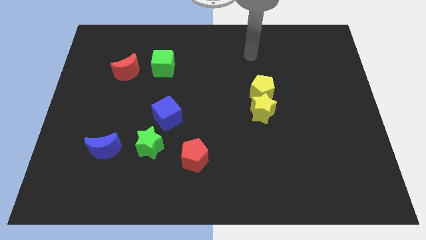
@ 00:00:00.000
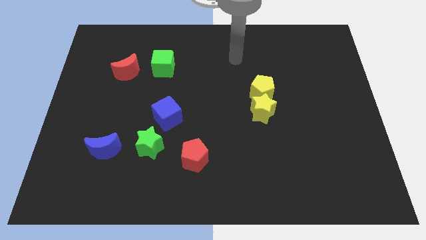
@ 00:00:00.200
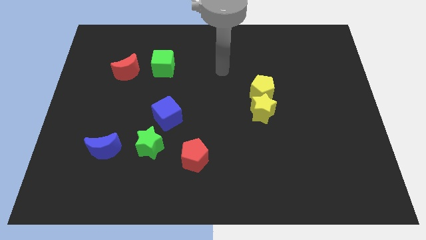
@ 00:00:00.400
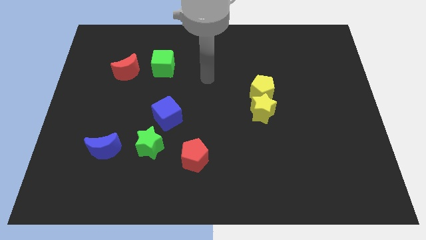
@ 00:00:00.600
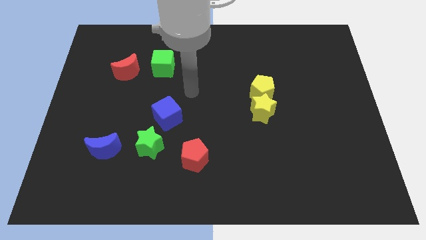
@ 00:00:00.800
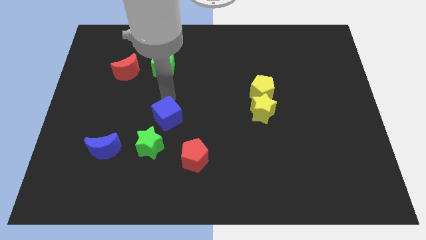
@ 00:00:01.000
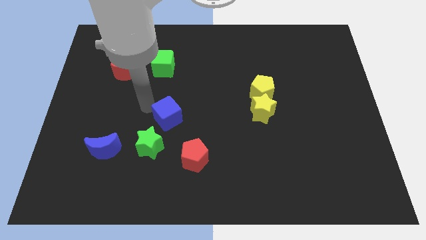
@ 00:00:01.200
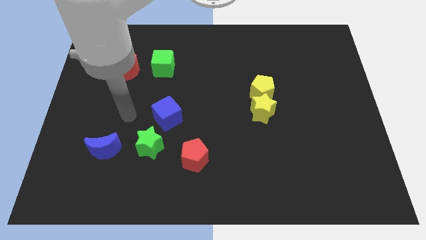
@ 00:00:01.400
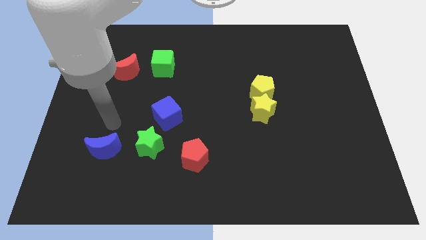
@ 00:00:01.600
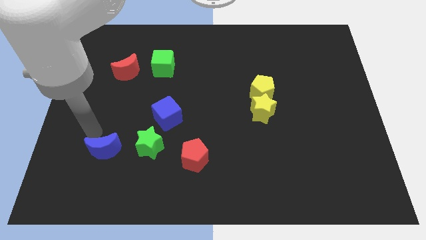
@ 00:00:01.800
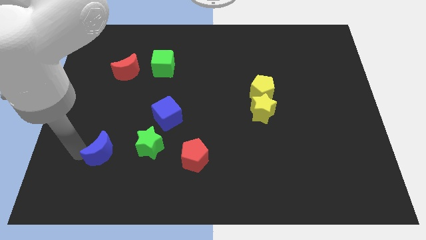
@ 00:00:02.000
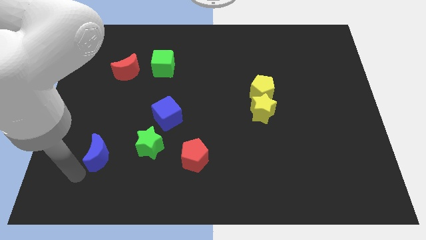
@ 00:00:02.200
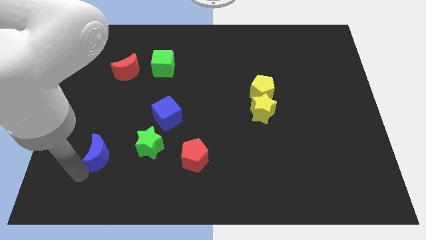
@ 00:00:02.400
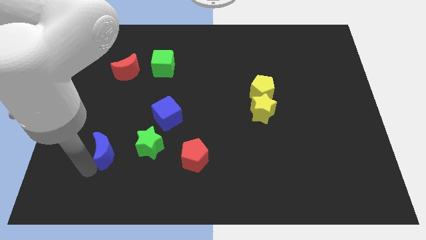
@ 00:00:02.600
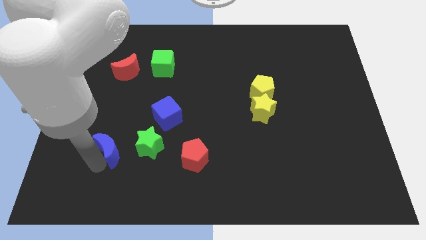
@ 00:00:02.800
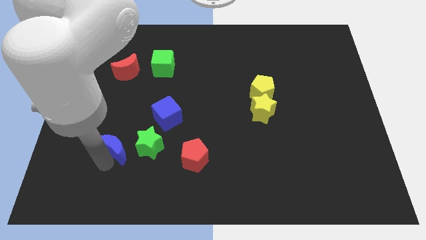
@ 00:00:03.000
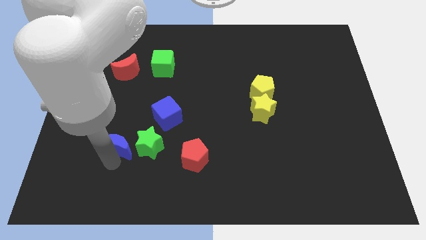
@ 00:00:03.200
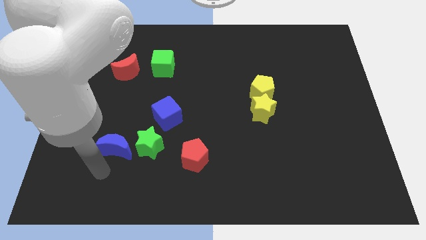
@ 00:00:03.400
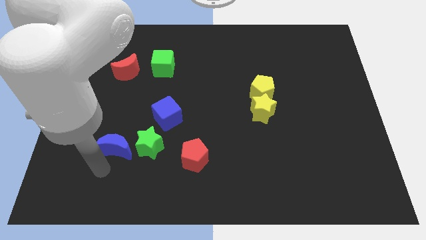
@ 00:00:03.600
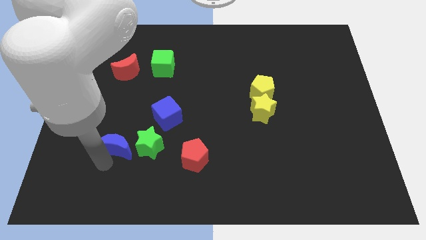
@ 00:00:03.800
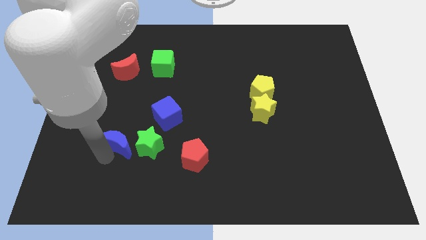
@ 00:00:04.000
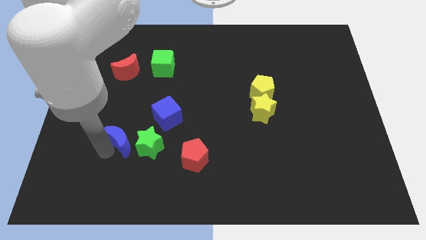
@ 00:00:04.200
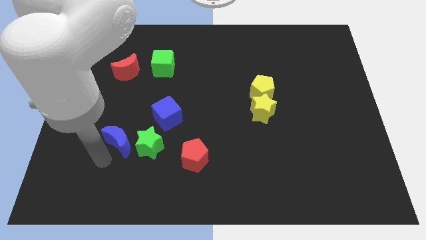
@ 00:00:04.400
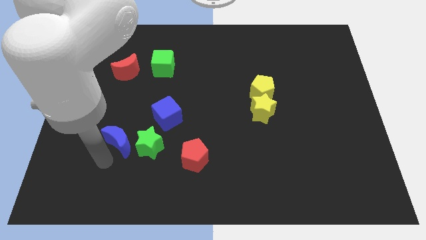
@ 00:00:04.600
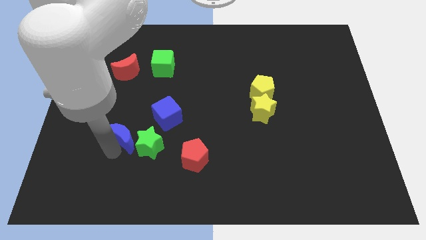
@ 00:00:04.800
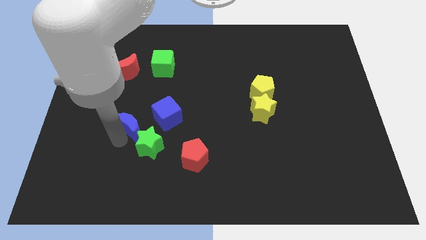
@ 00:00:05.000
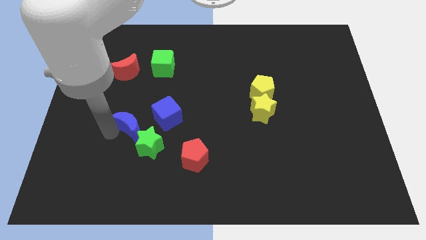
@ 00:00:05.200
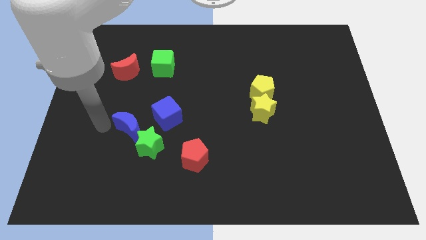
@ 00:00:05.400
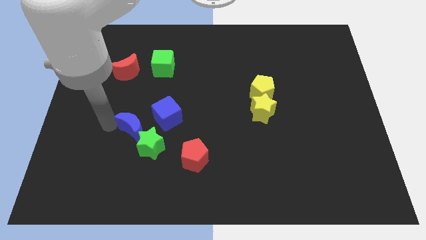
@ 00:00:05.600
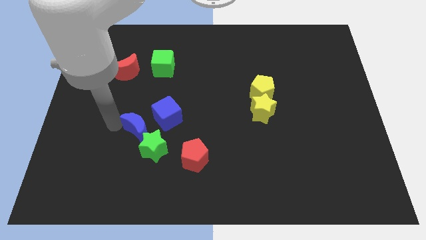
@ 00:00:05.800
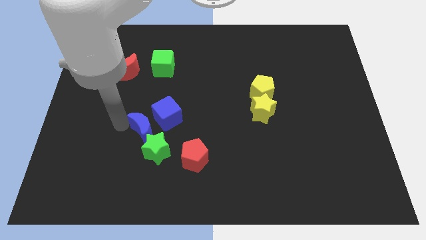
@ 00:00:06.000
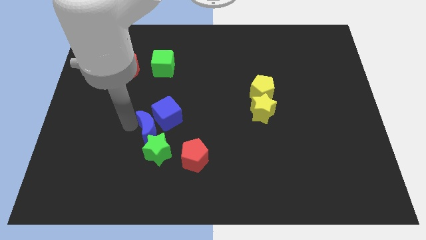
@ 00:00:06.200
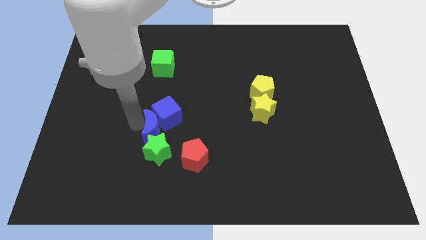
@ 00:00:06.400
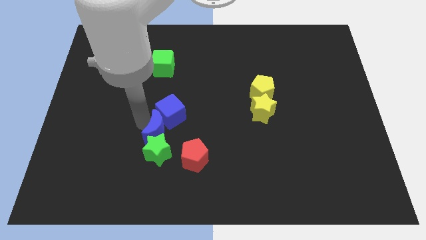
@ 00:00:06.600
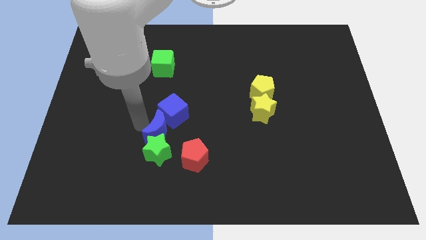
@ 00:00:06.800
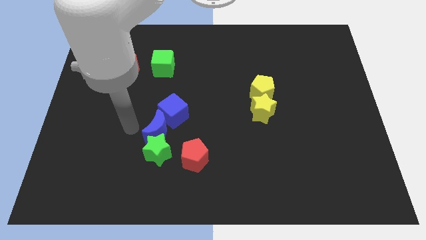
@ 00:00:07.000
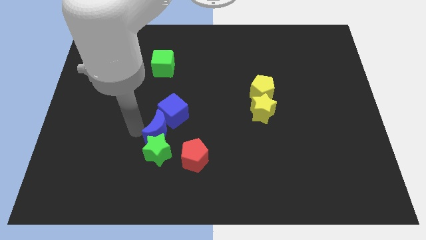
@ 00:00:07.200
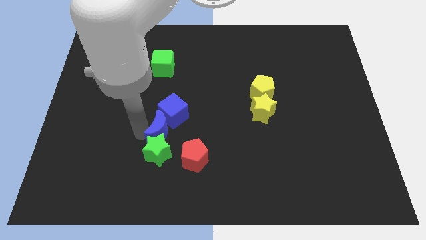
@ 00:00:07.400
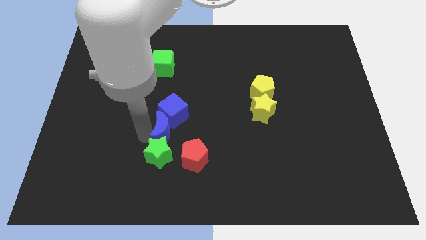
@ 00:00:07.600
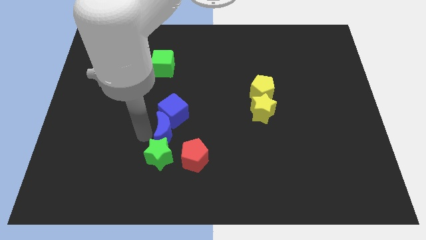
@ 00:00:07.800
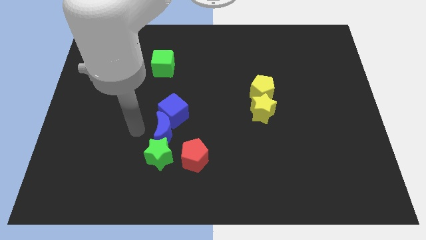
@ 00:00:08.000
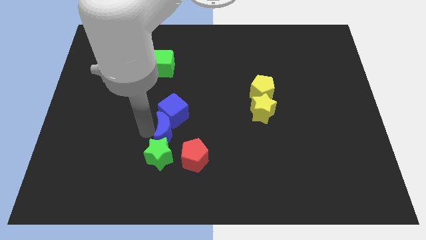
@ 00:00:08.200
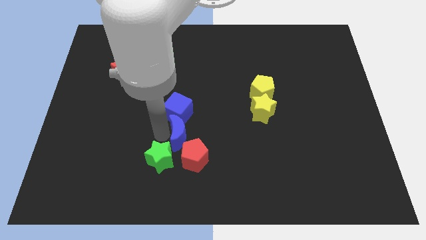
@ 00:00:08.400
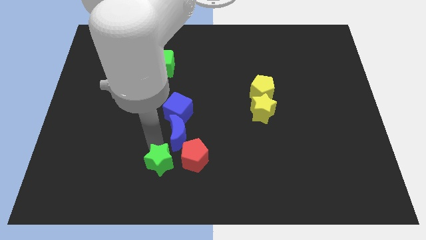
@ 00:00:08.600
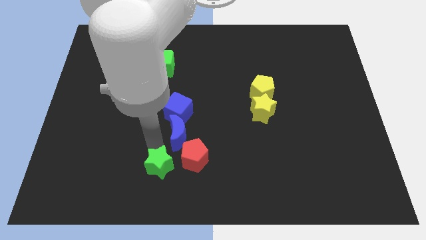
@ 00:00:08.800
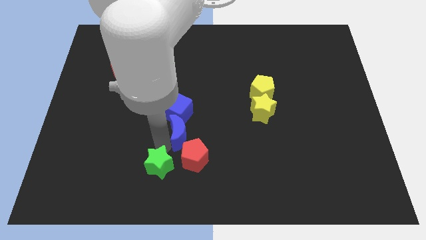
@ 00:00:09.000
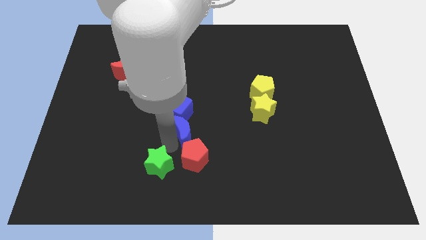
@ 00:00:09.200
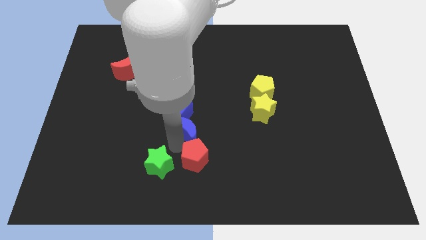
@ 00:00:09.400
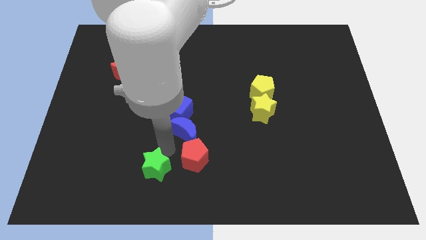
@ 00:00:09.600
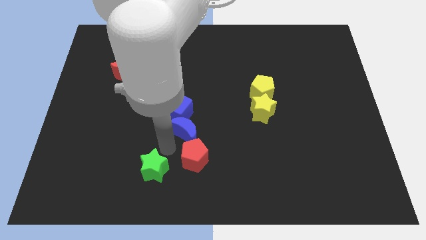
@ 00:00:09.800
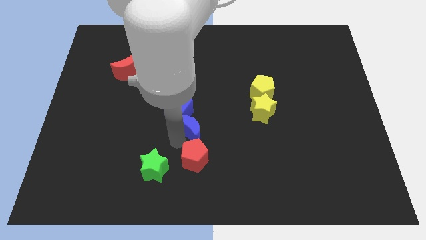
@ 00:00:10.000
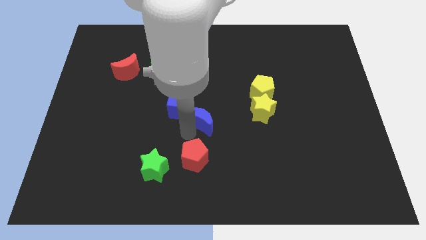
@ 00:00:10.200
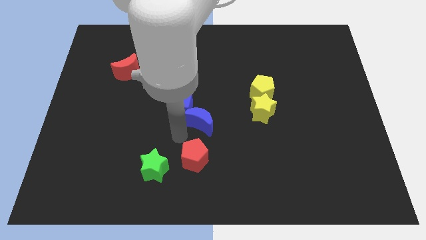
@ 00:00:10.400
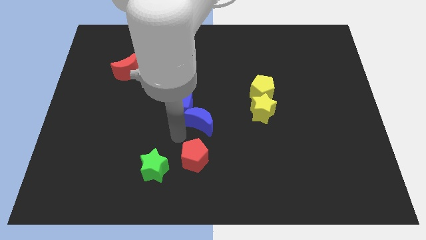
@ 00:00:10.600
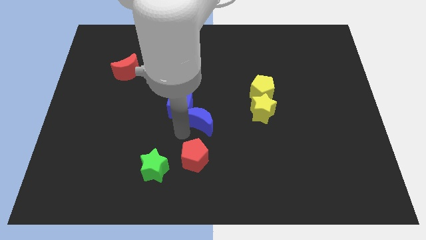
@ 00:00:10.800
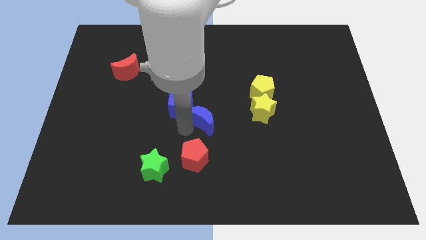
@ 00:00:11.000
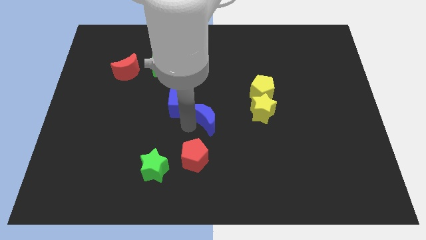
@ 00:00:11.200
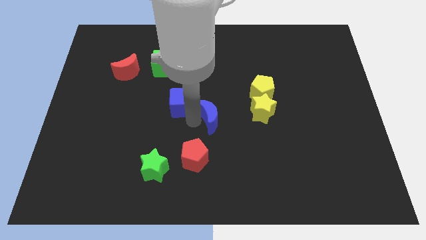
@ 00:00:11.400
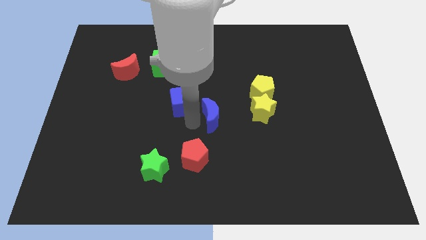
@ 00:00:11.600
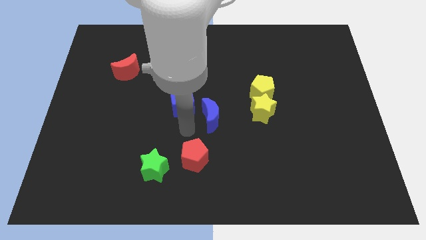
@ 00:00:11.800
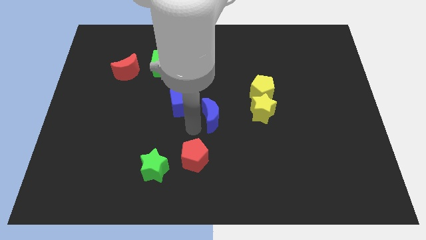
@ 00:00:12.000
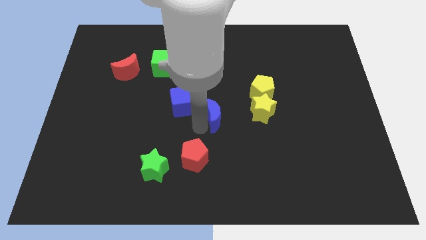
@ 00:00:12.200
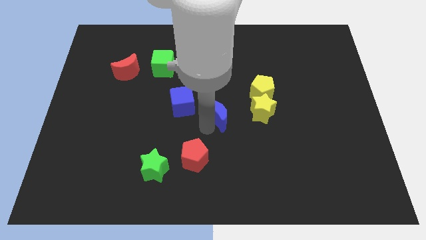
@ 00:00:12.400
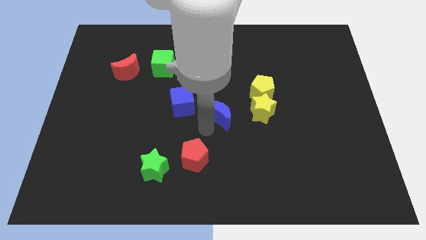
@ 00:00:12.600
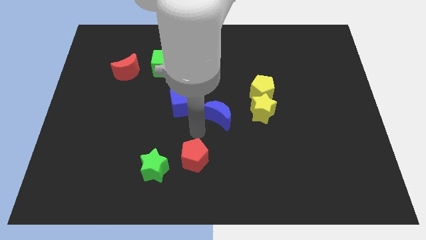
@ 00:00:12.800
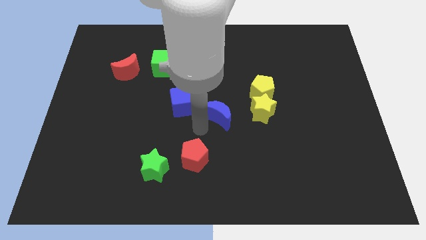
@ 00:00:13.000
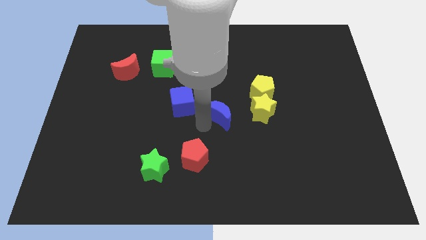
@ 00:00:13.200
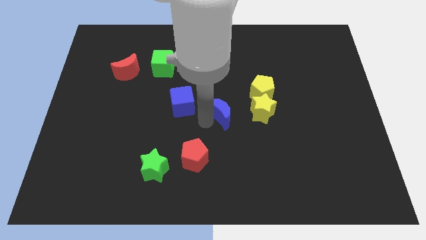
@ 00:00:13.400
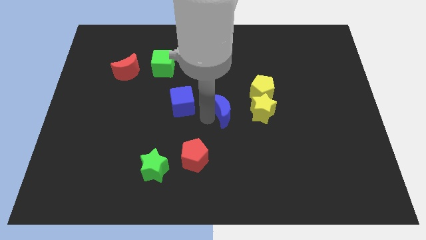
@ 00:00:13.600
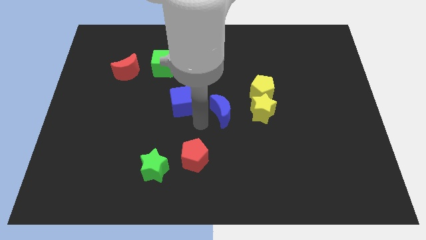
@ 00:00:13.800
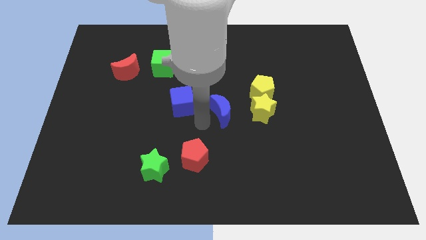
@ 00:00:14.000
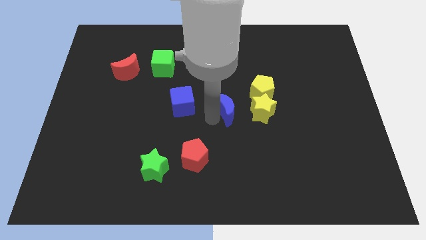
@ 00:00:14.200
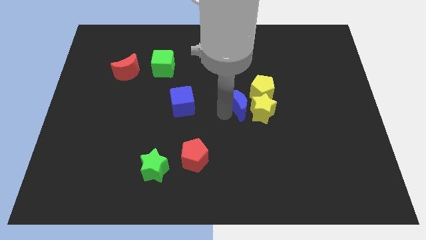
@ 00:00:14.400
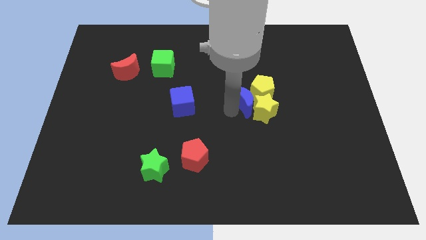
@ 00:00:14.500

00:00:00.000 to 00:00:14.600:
move the blue moon to the yellow pentagon
